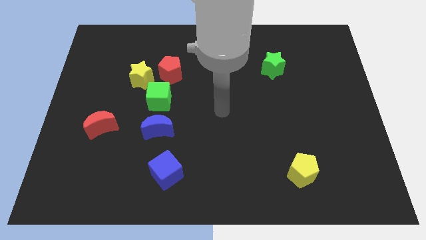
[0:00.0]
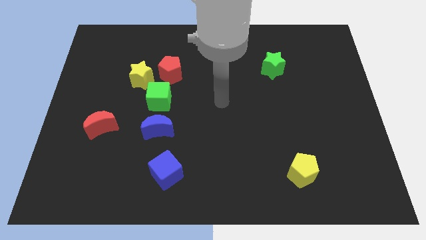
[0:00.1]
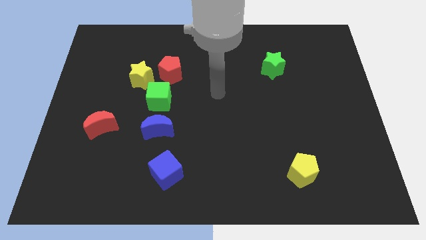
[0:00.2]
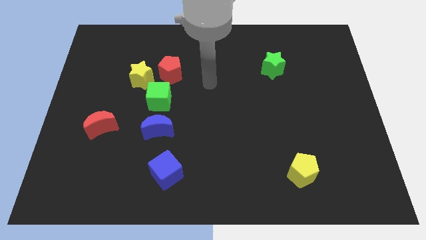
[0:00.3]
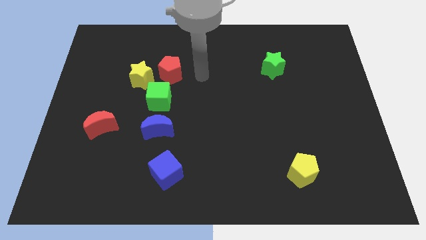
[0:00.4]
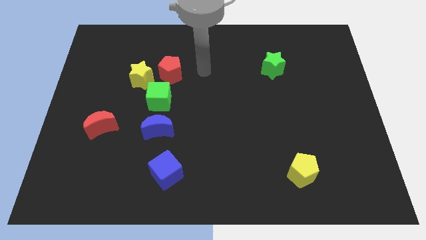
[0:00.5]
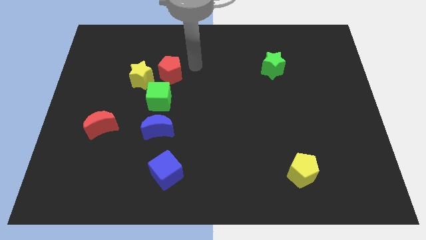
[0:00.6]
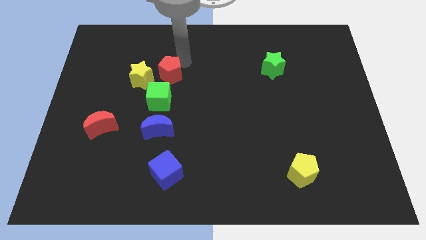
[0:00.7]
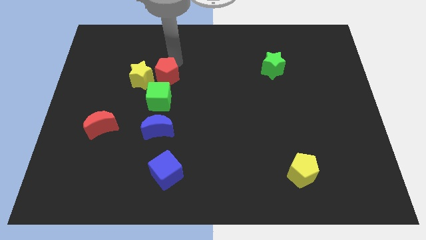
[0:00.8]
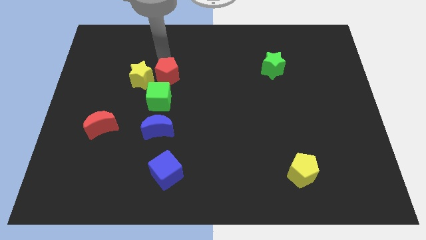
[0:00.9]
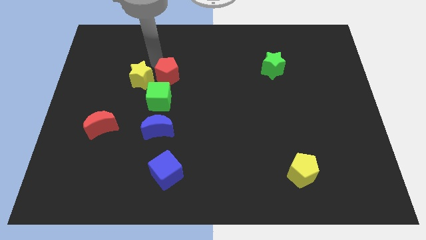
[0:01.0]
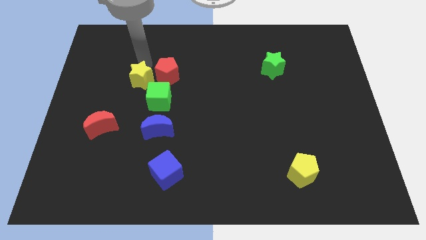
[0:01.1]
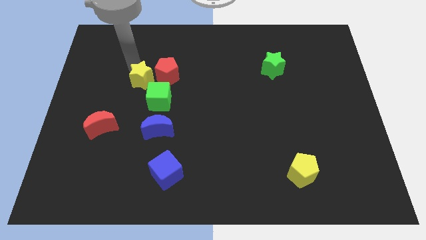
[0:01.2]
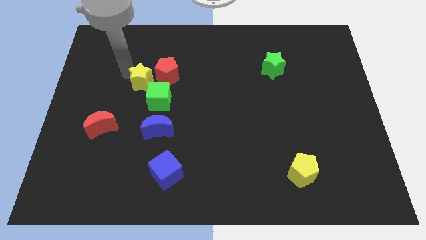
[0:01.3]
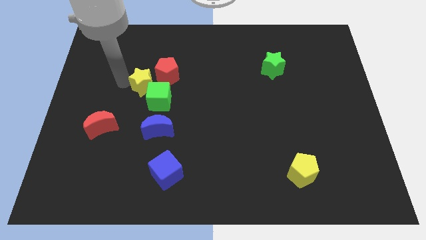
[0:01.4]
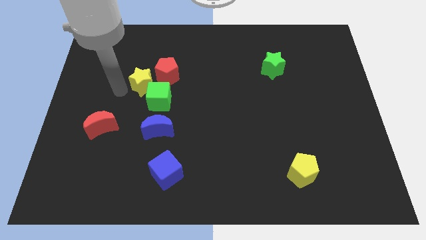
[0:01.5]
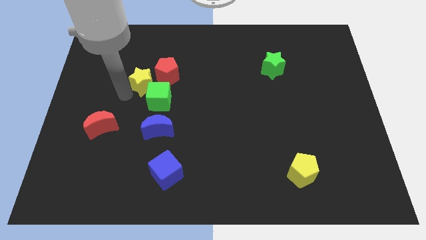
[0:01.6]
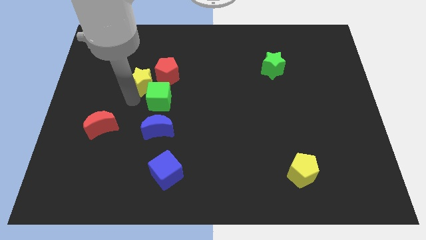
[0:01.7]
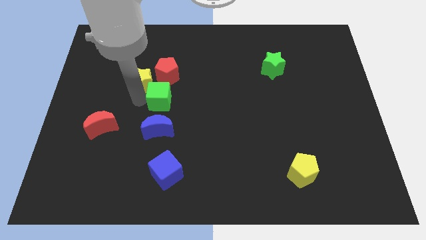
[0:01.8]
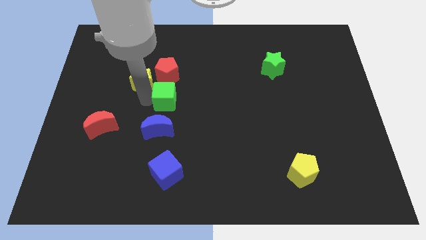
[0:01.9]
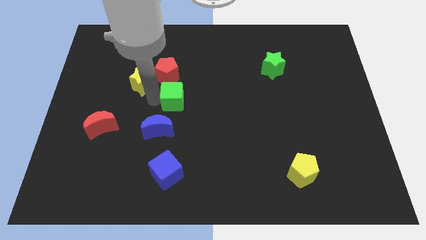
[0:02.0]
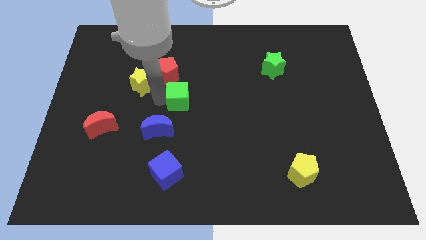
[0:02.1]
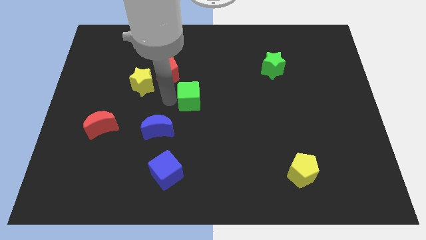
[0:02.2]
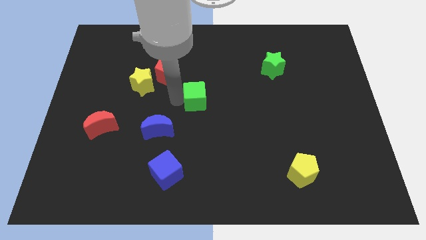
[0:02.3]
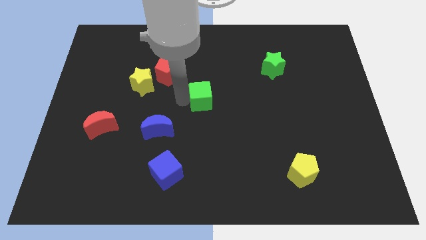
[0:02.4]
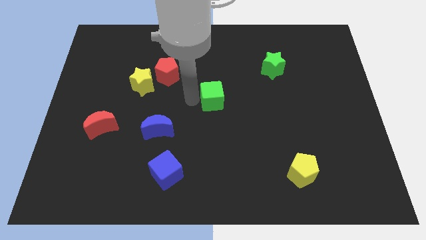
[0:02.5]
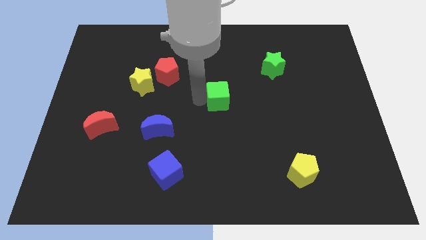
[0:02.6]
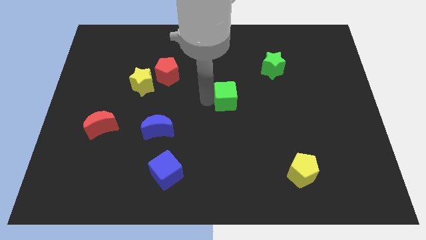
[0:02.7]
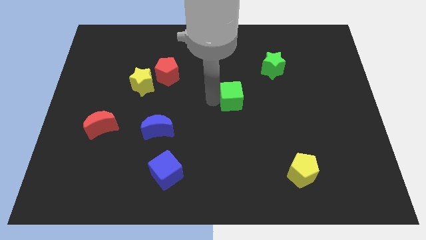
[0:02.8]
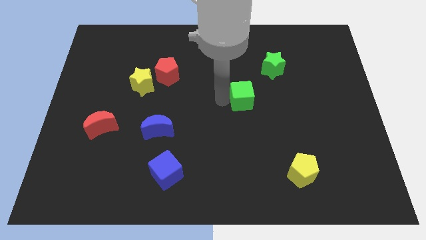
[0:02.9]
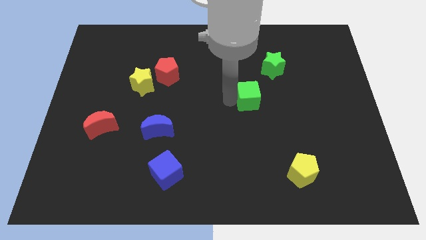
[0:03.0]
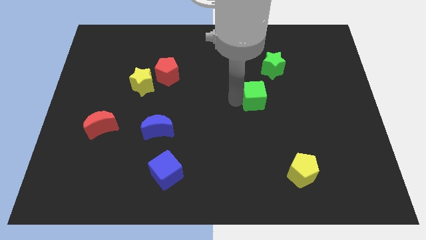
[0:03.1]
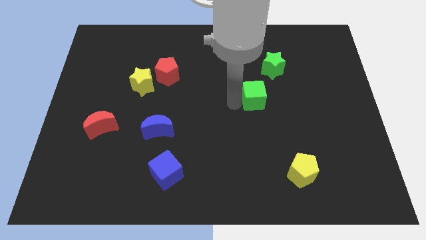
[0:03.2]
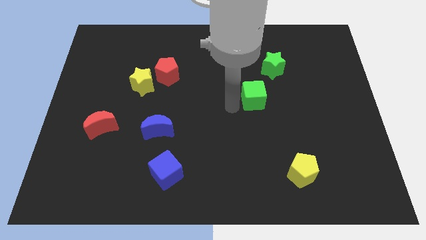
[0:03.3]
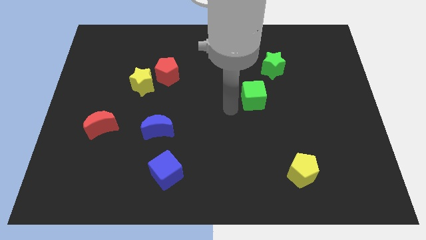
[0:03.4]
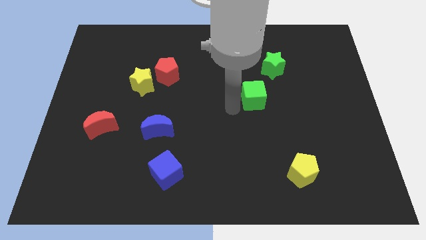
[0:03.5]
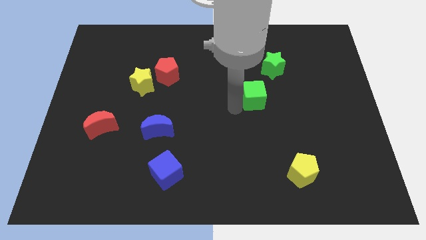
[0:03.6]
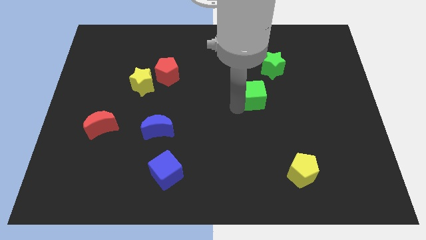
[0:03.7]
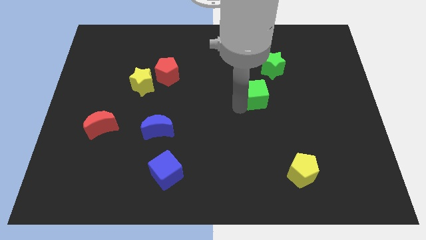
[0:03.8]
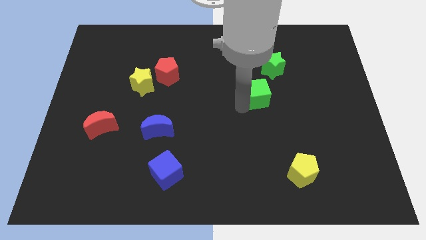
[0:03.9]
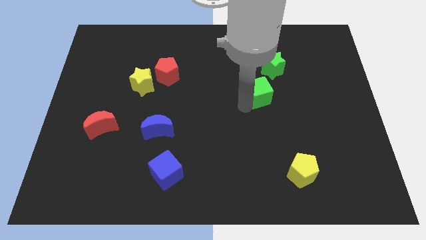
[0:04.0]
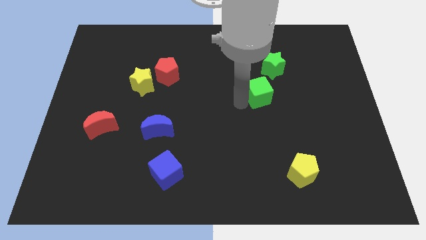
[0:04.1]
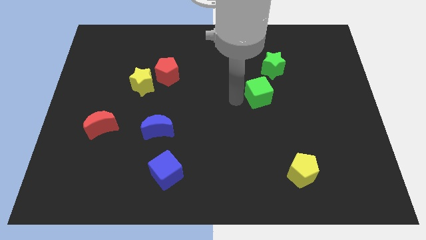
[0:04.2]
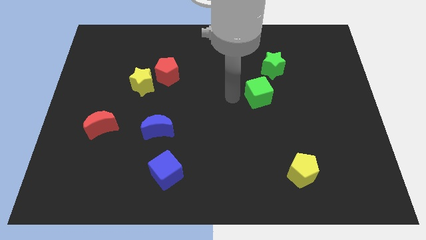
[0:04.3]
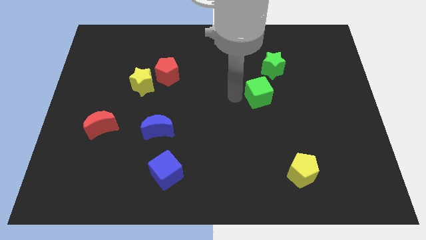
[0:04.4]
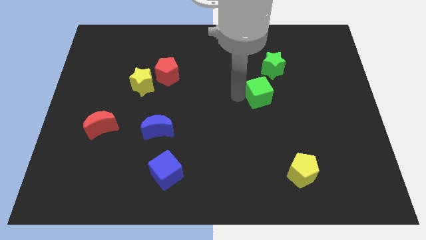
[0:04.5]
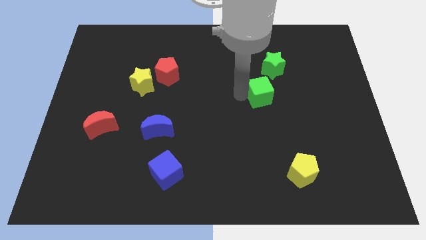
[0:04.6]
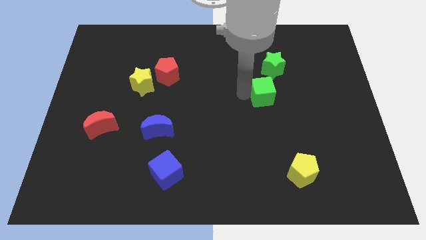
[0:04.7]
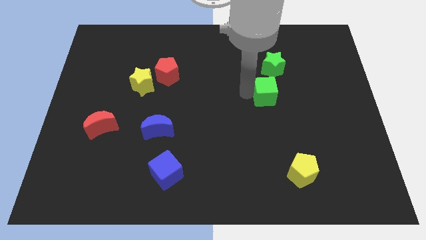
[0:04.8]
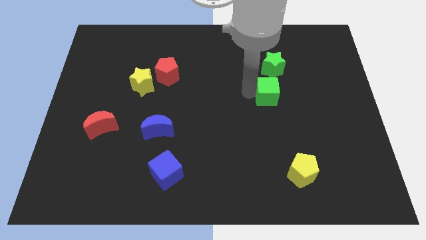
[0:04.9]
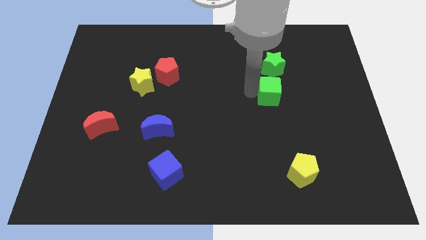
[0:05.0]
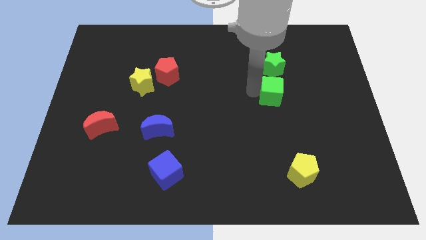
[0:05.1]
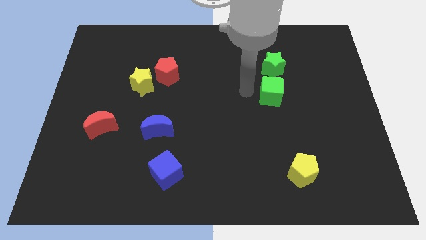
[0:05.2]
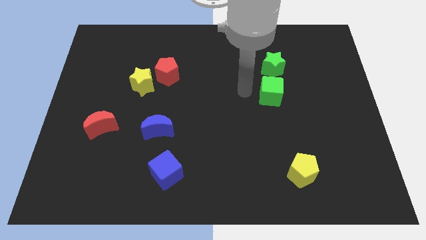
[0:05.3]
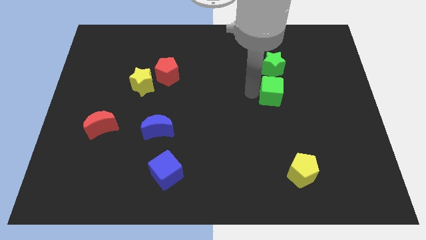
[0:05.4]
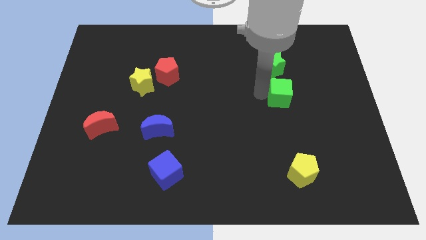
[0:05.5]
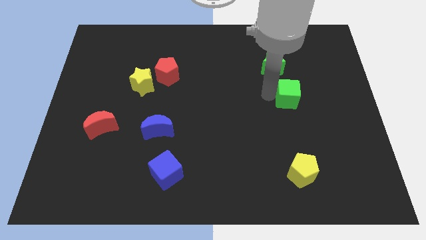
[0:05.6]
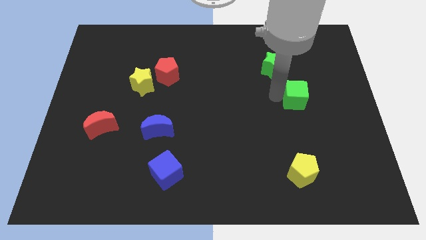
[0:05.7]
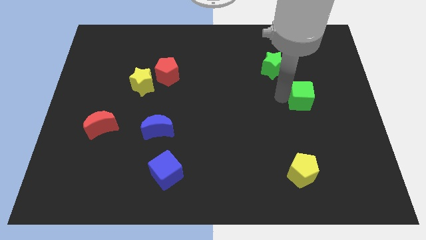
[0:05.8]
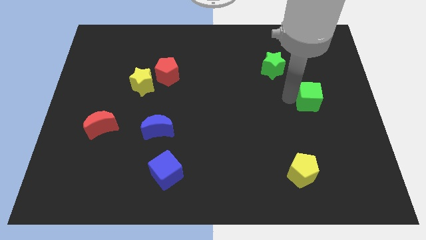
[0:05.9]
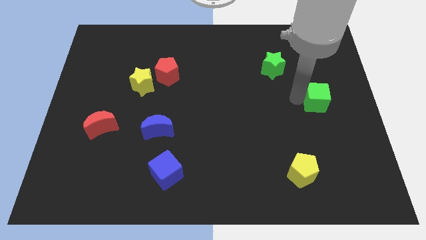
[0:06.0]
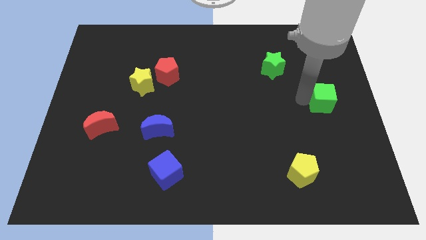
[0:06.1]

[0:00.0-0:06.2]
push the green cube to the right side of the board
